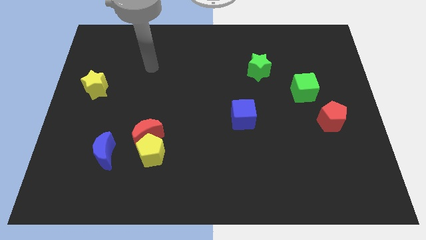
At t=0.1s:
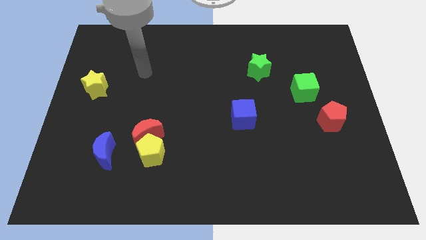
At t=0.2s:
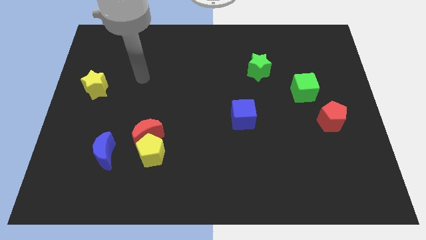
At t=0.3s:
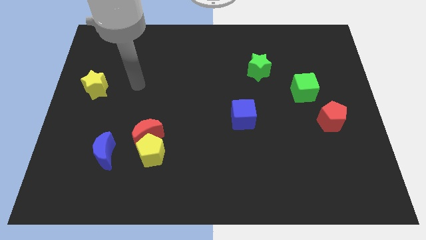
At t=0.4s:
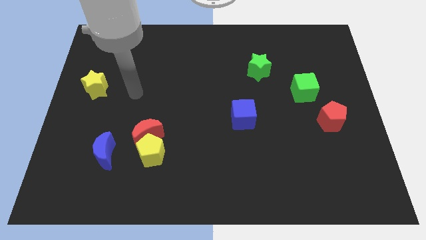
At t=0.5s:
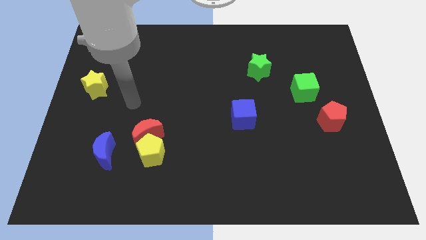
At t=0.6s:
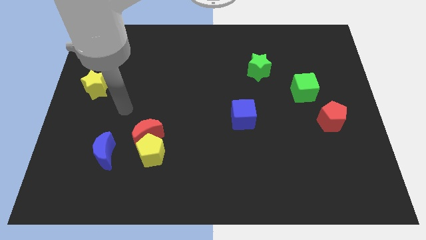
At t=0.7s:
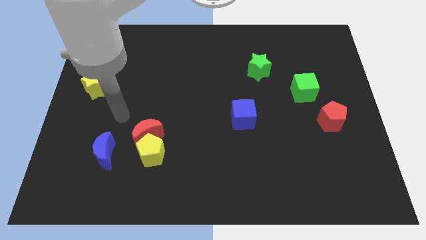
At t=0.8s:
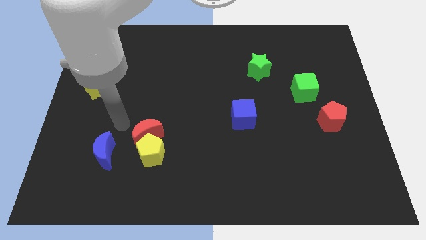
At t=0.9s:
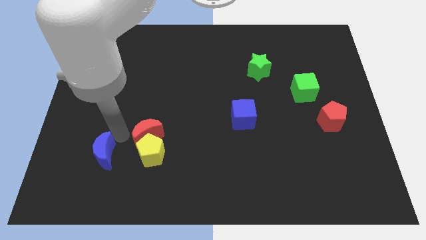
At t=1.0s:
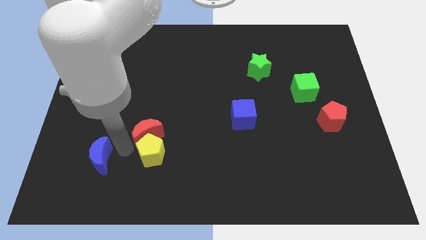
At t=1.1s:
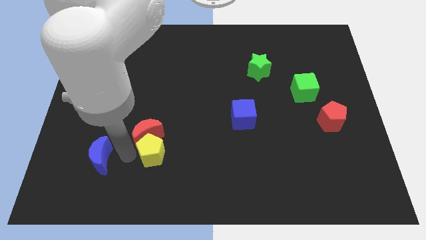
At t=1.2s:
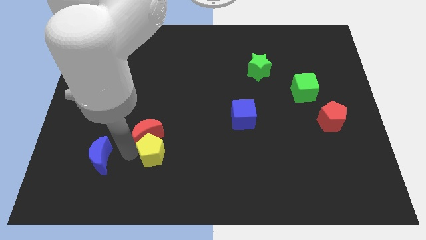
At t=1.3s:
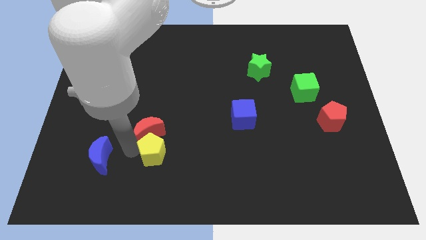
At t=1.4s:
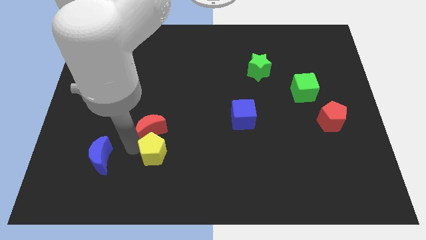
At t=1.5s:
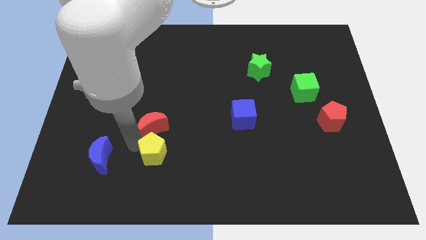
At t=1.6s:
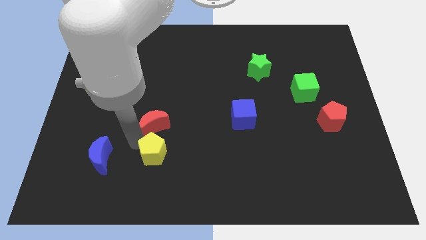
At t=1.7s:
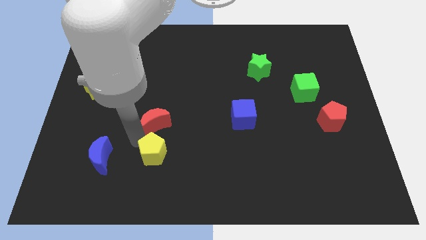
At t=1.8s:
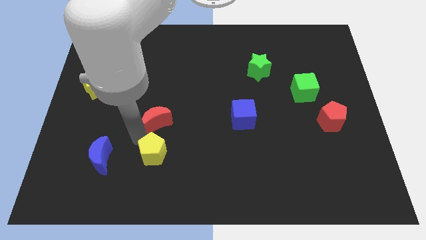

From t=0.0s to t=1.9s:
move the red moon away from the yellow pentagon and blue moon

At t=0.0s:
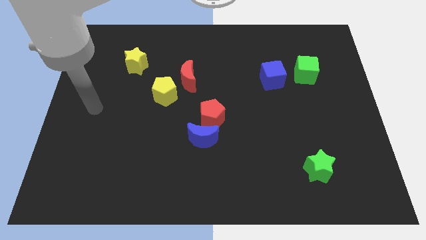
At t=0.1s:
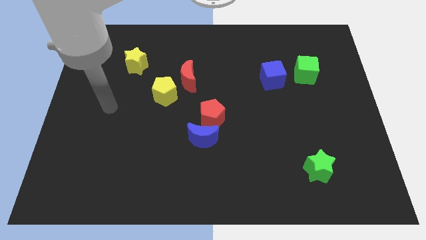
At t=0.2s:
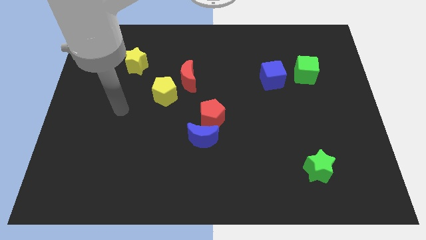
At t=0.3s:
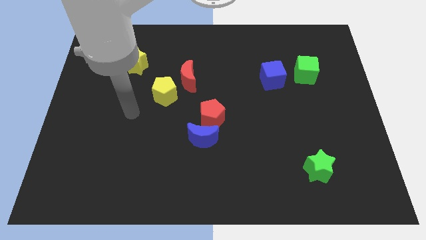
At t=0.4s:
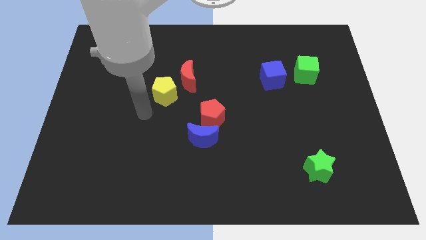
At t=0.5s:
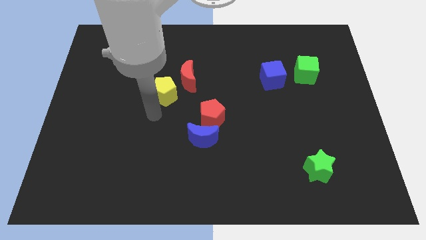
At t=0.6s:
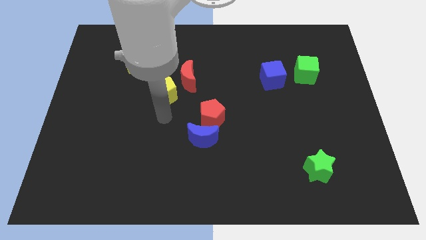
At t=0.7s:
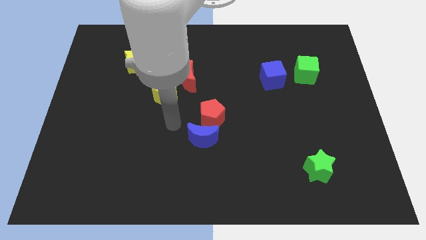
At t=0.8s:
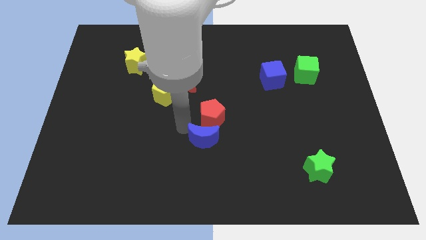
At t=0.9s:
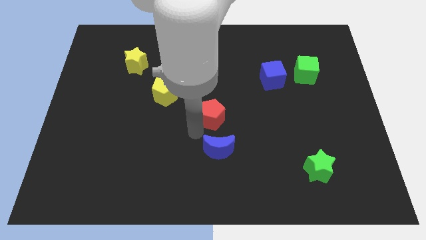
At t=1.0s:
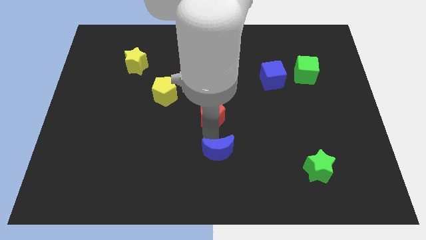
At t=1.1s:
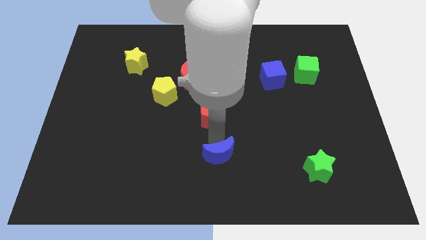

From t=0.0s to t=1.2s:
separate the red pentagon from the blue moon

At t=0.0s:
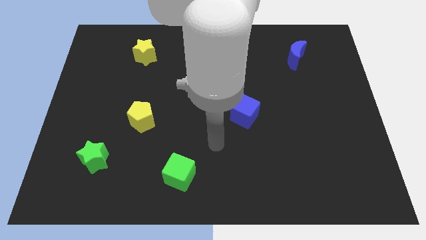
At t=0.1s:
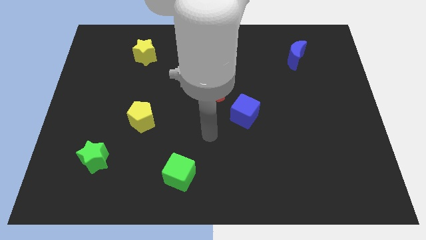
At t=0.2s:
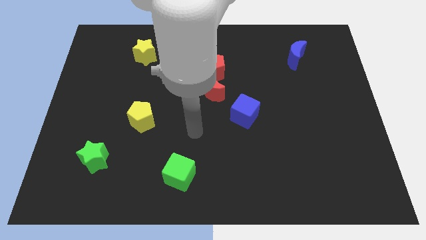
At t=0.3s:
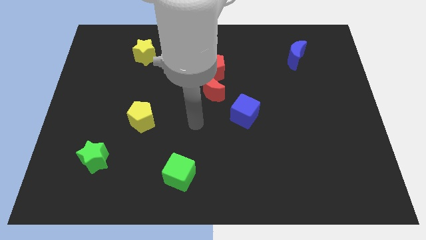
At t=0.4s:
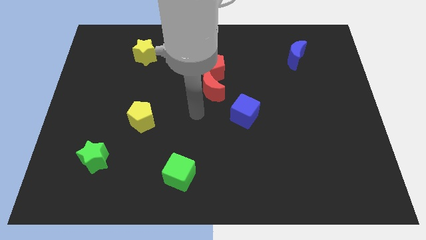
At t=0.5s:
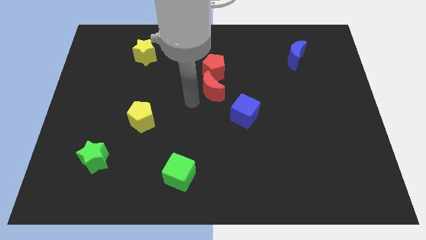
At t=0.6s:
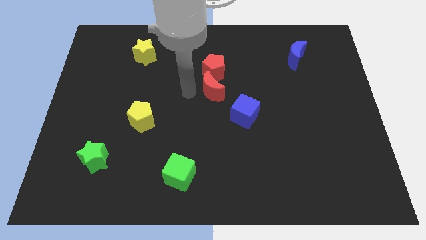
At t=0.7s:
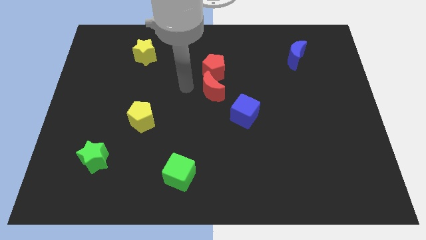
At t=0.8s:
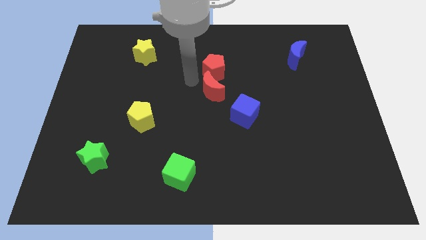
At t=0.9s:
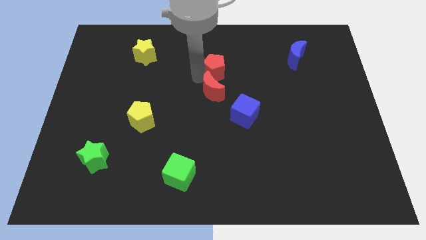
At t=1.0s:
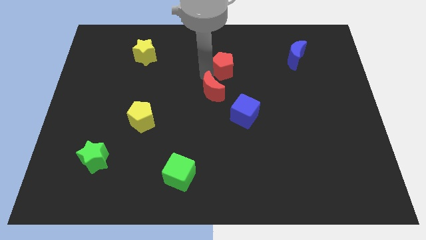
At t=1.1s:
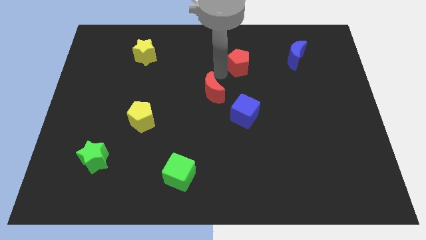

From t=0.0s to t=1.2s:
separate the red moon from the red pentagon

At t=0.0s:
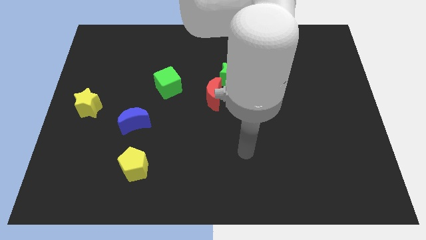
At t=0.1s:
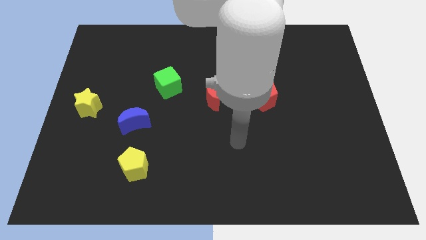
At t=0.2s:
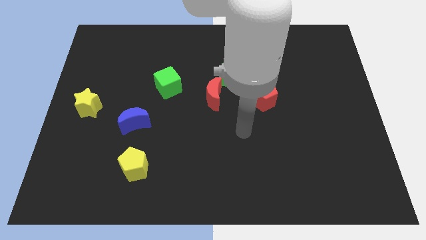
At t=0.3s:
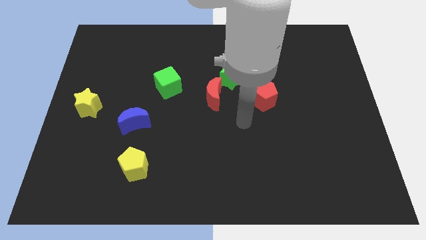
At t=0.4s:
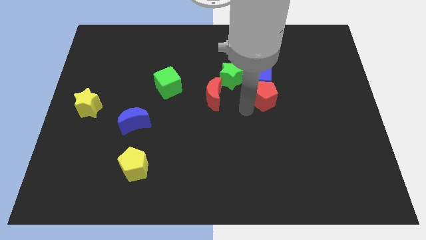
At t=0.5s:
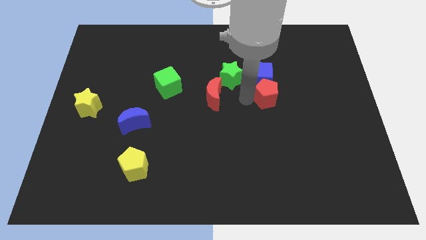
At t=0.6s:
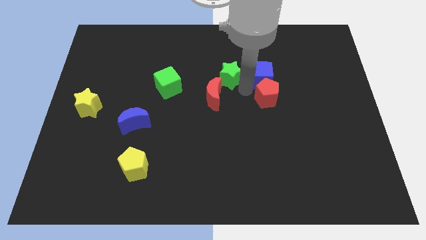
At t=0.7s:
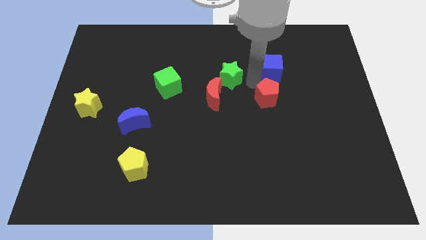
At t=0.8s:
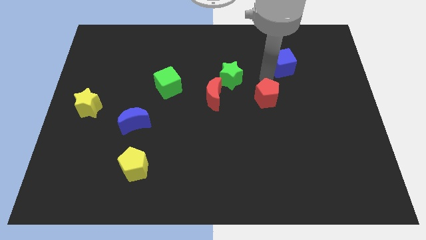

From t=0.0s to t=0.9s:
pull the red pentagon apart from the blue cube

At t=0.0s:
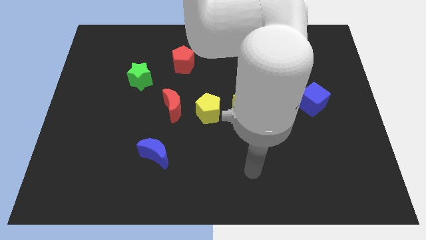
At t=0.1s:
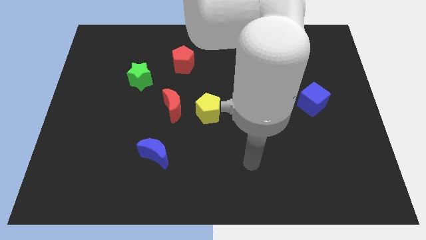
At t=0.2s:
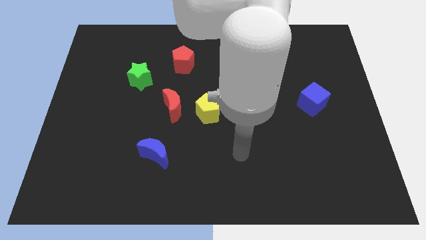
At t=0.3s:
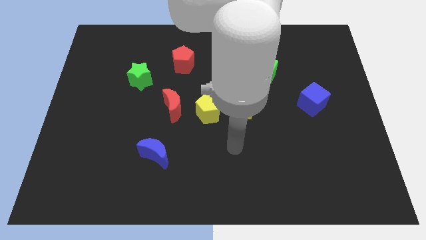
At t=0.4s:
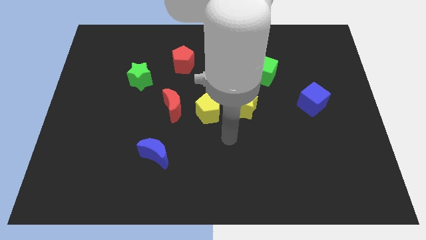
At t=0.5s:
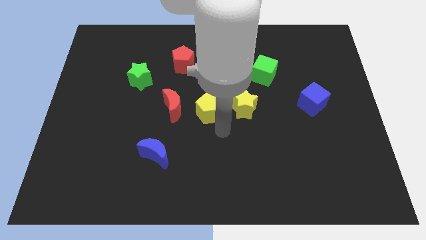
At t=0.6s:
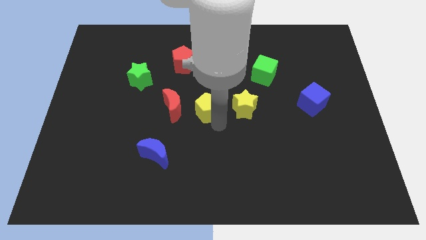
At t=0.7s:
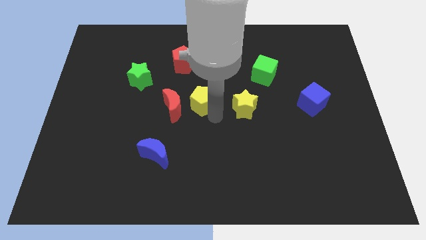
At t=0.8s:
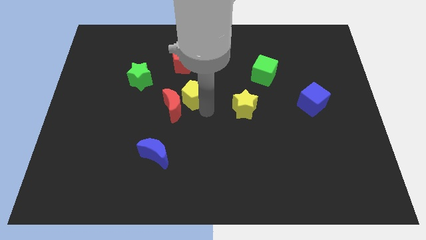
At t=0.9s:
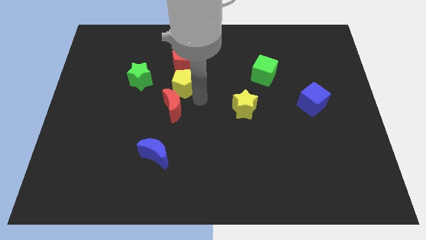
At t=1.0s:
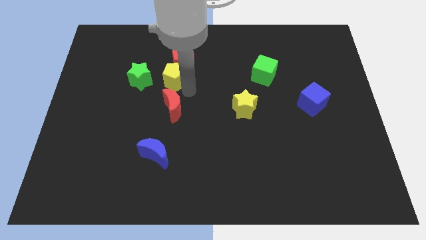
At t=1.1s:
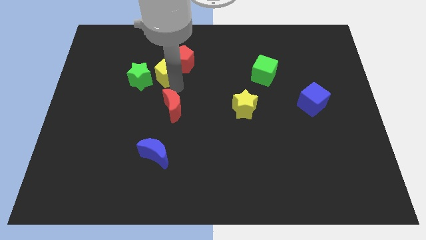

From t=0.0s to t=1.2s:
separate the red moon from the yellow pentagon

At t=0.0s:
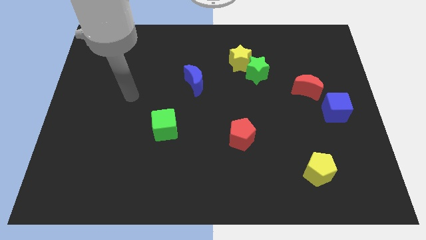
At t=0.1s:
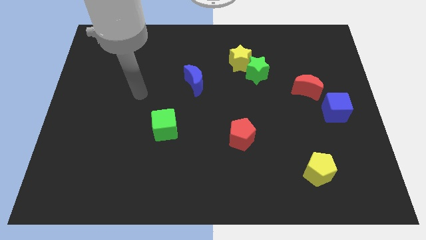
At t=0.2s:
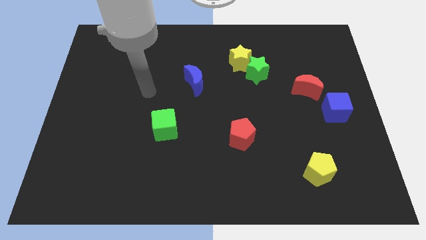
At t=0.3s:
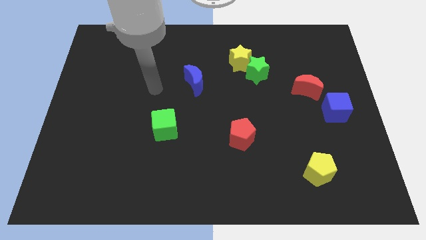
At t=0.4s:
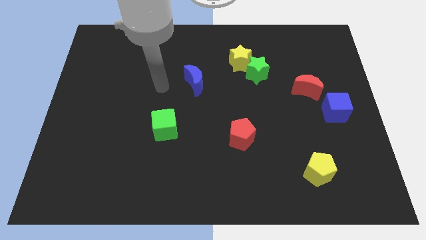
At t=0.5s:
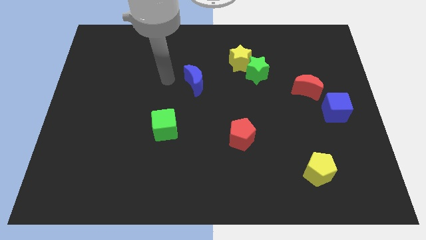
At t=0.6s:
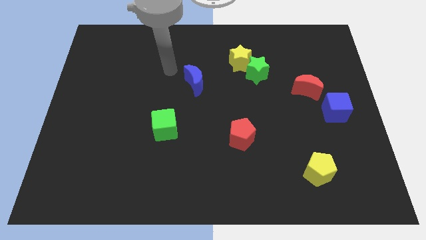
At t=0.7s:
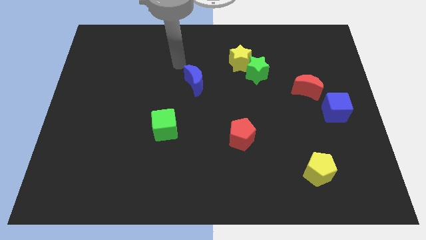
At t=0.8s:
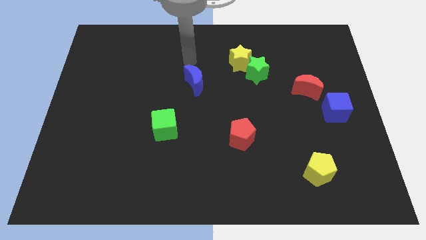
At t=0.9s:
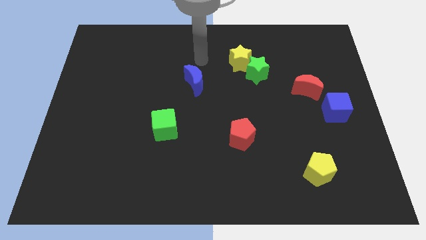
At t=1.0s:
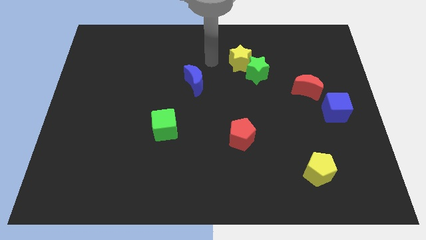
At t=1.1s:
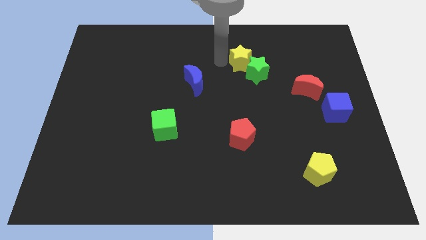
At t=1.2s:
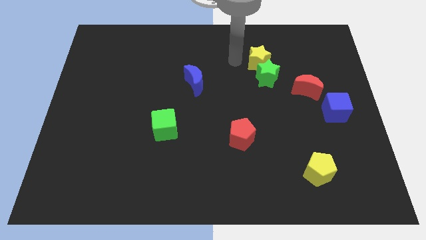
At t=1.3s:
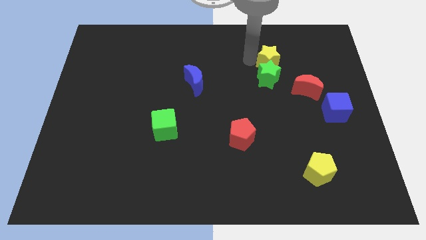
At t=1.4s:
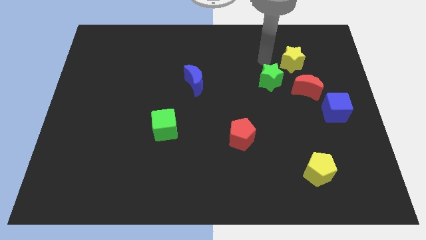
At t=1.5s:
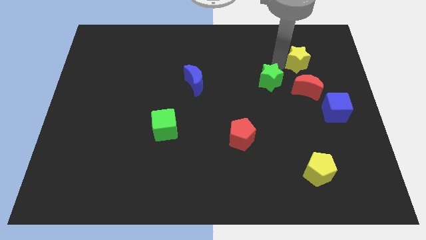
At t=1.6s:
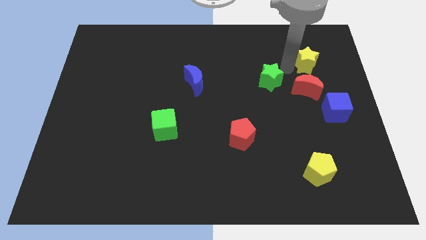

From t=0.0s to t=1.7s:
separate the green star from the yellow star

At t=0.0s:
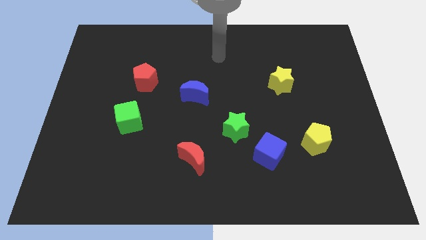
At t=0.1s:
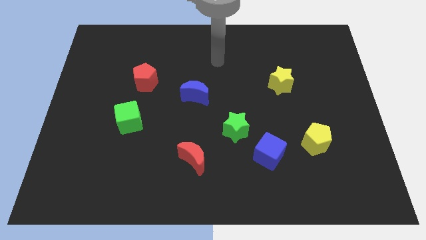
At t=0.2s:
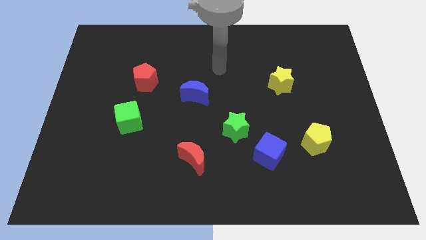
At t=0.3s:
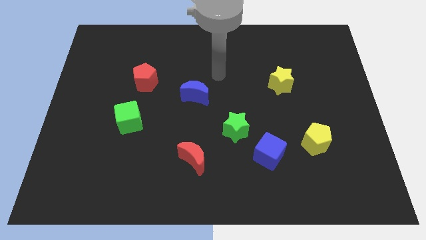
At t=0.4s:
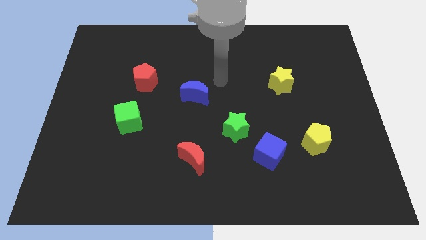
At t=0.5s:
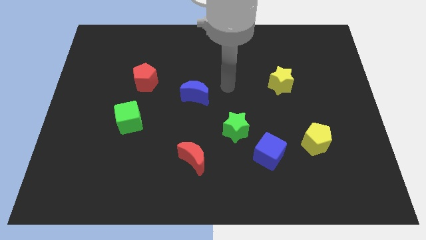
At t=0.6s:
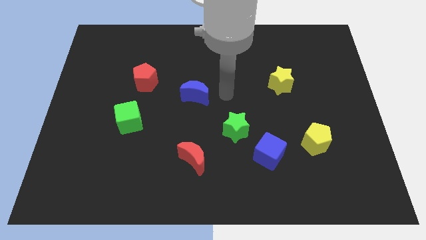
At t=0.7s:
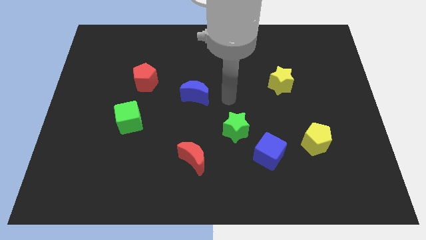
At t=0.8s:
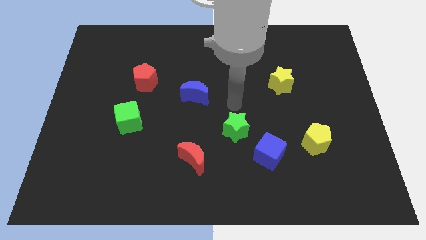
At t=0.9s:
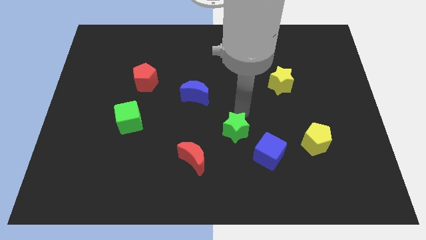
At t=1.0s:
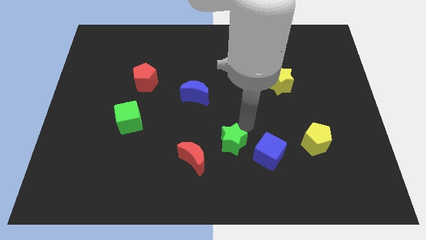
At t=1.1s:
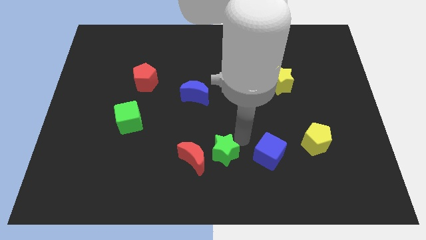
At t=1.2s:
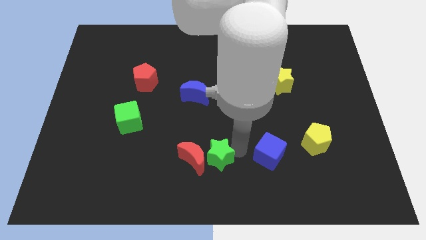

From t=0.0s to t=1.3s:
separate the blue cube from the green star
